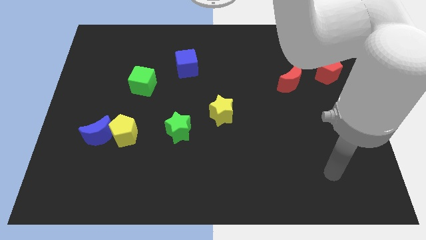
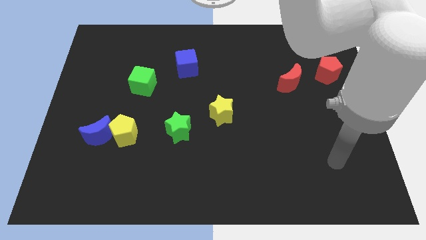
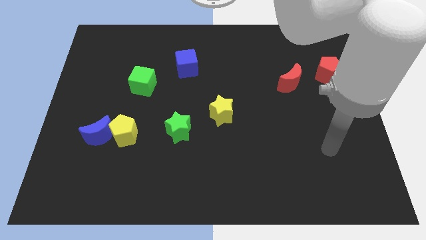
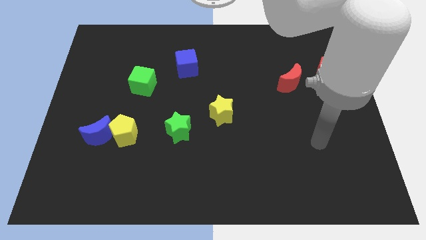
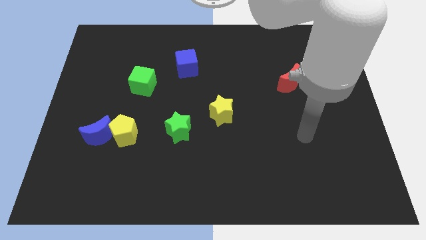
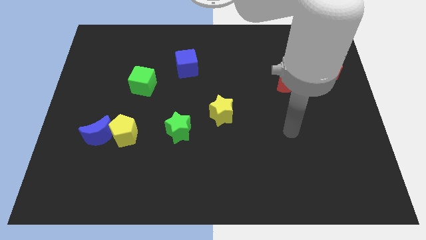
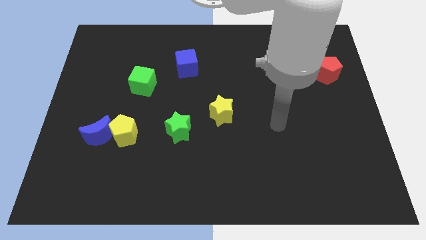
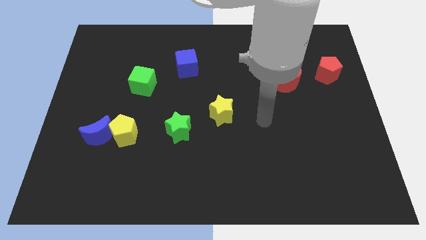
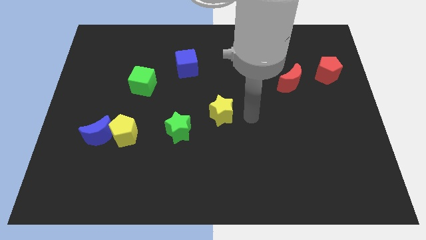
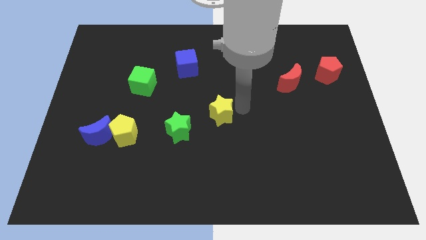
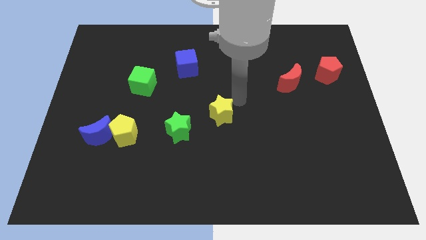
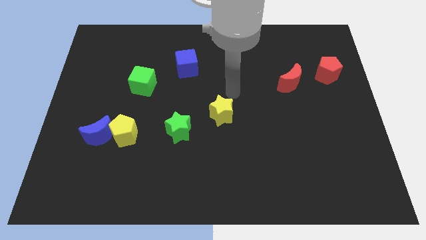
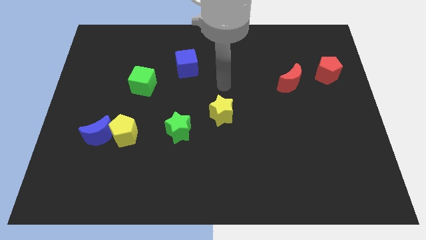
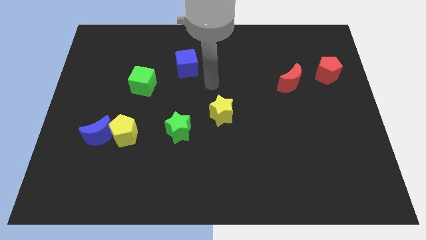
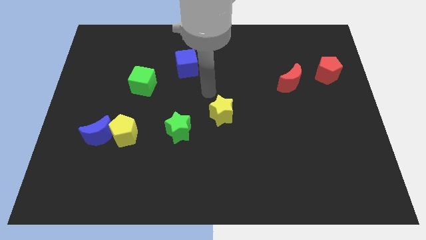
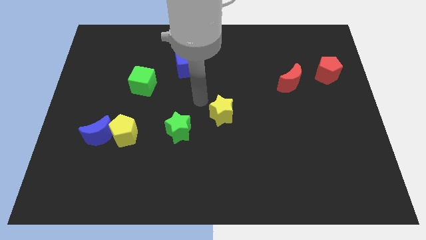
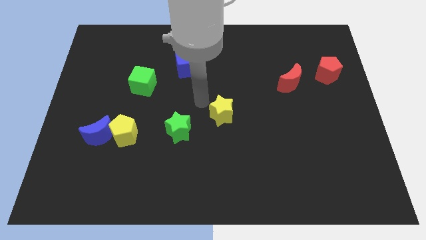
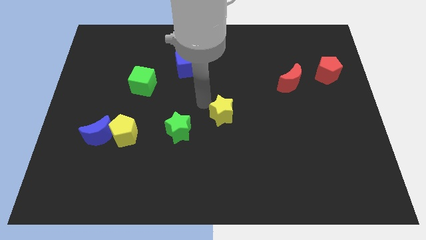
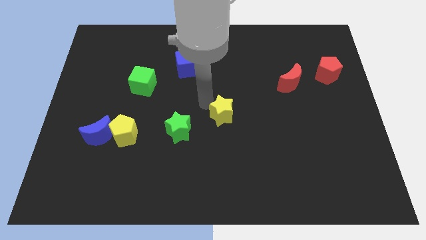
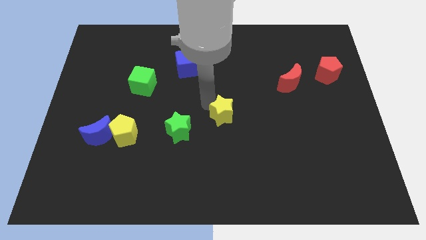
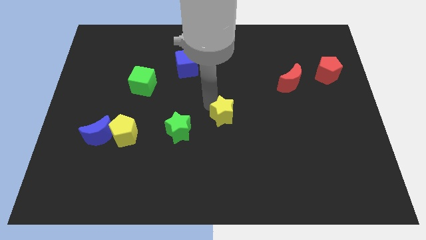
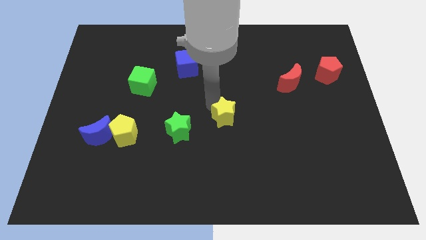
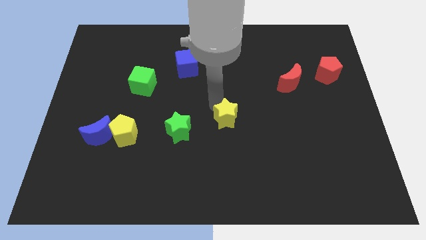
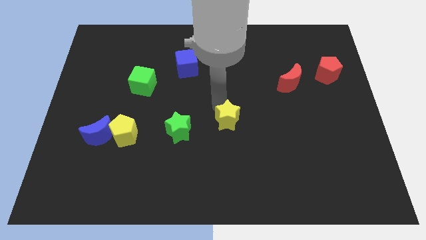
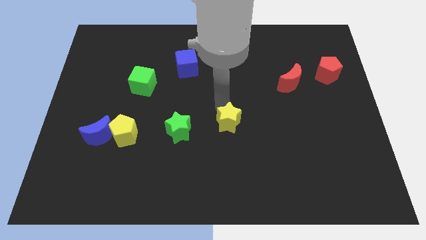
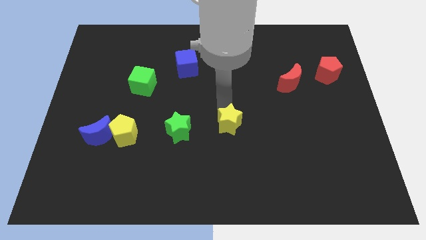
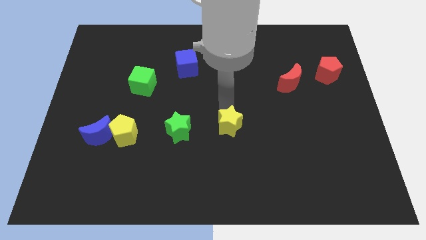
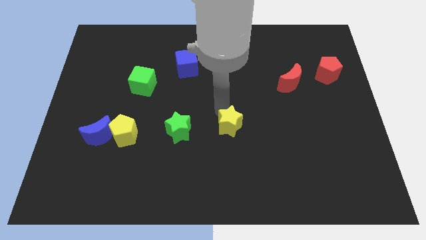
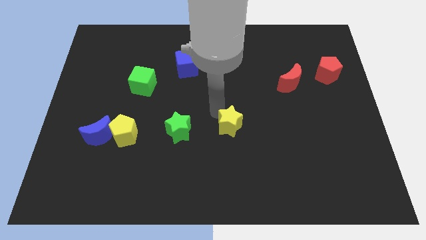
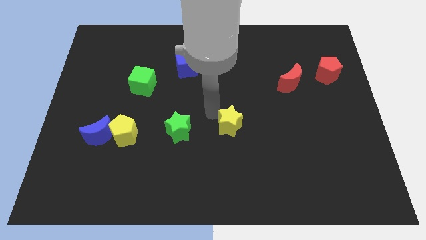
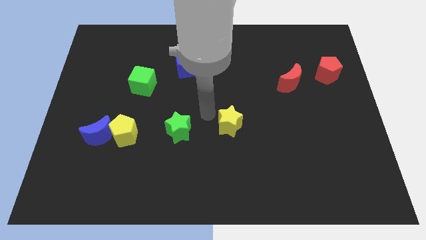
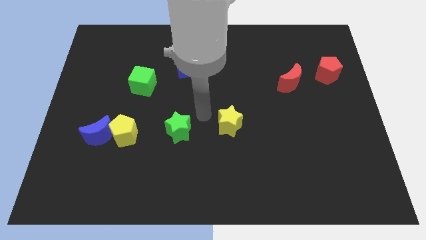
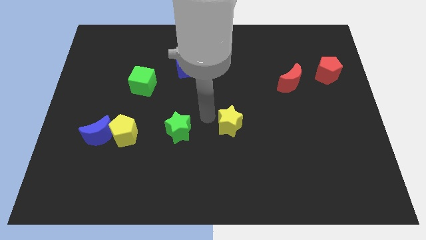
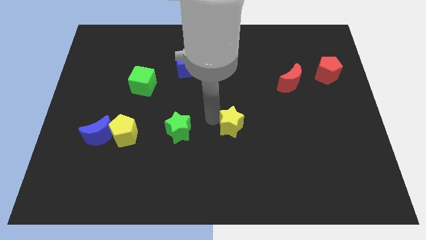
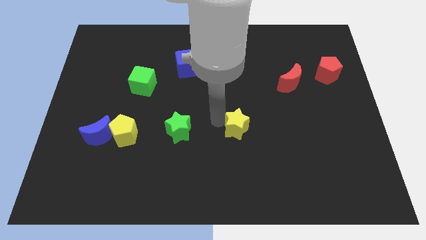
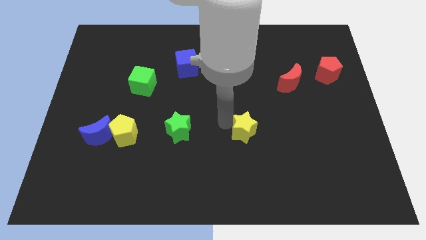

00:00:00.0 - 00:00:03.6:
slightly slide the yellow star downwards and then right

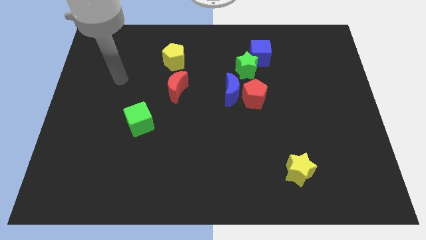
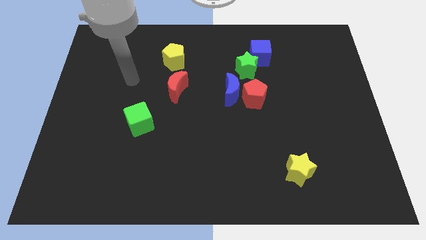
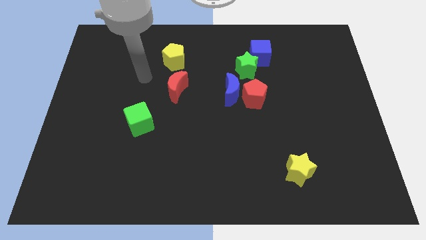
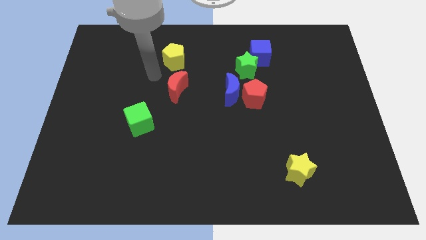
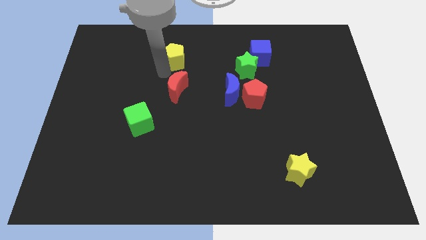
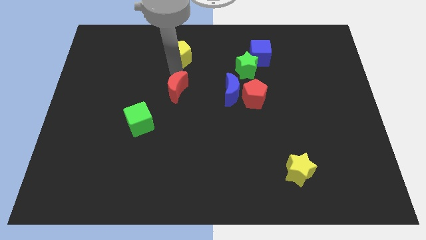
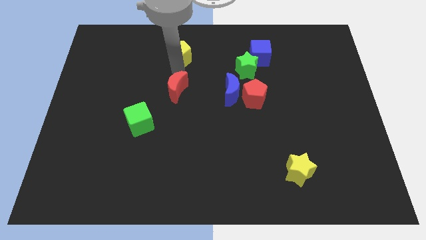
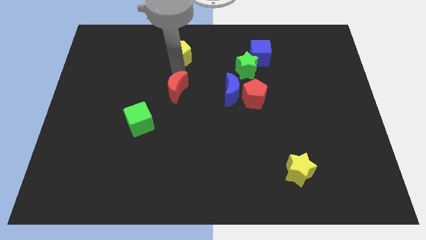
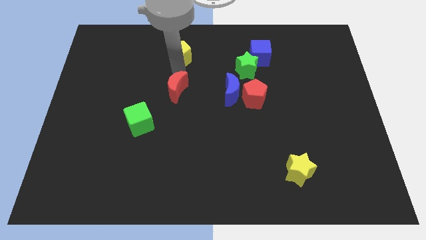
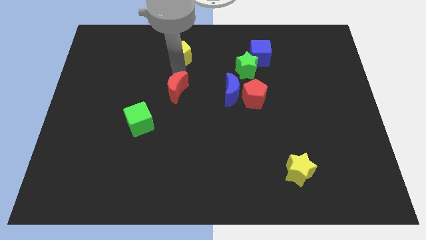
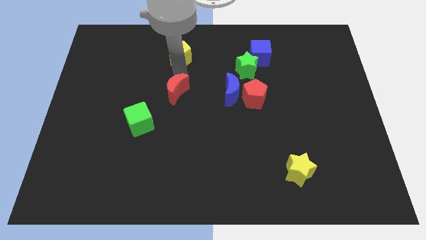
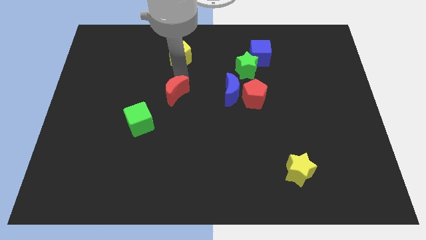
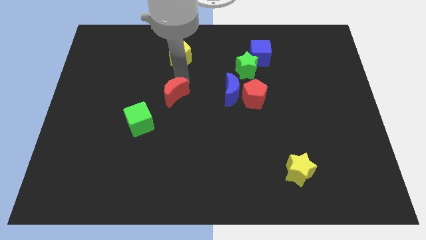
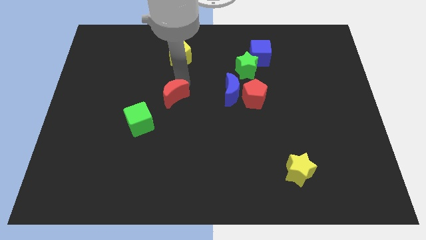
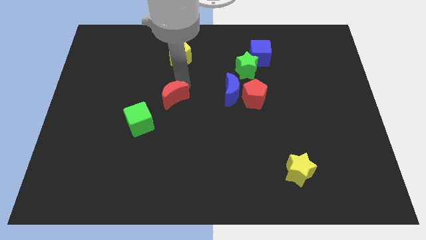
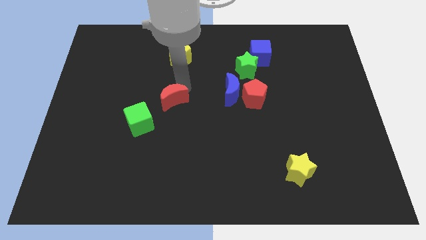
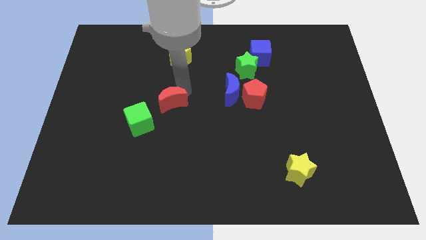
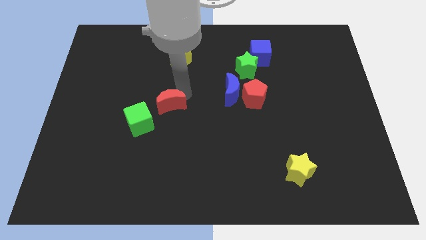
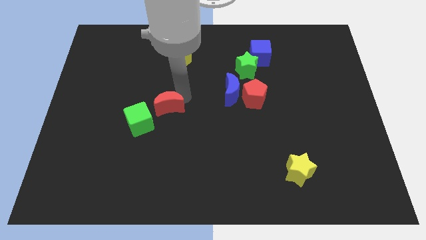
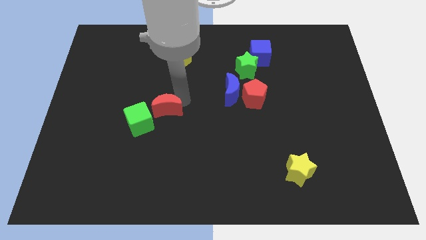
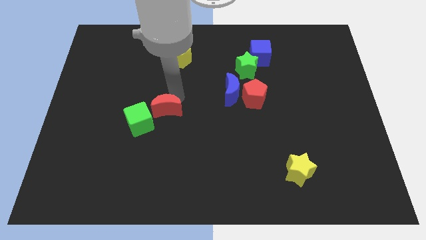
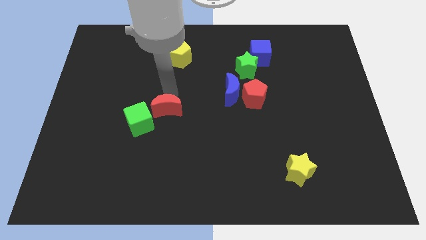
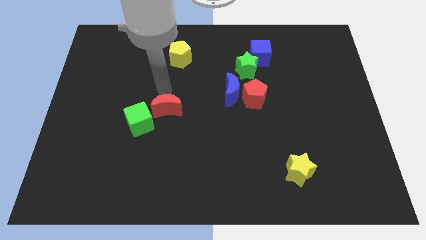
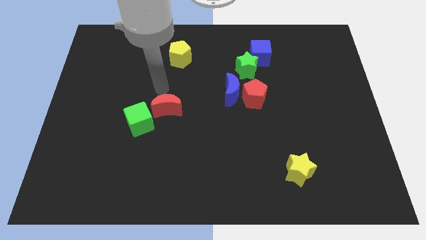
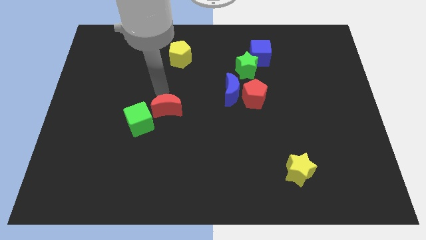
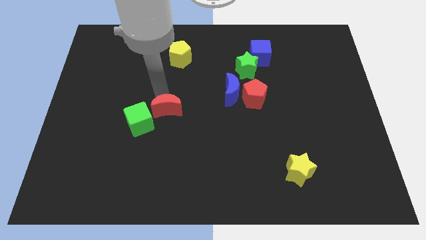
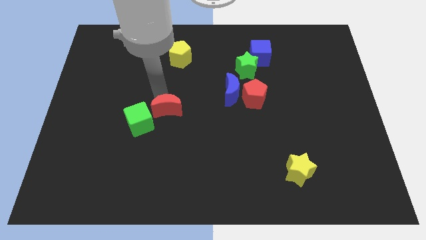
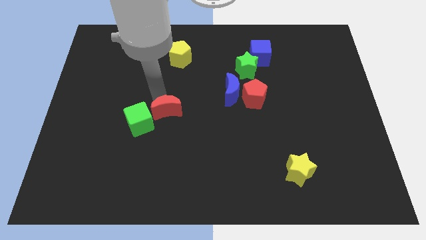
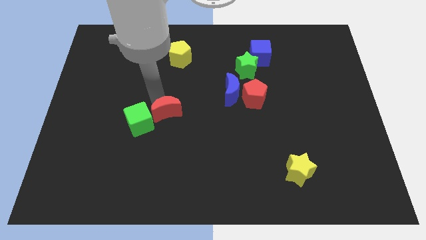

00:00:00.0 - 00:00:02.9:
slide the red moon a little bit downwards

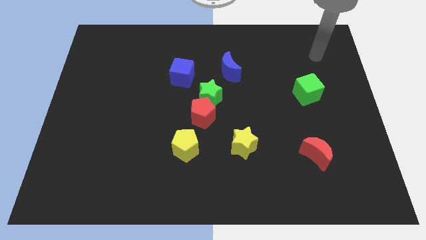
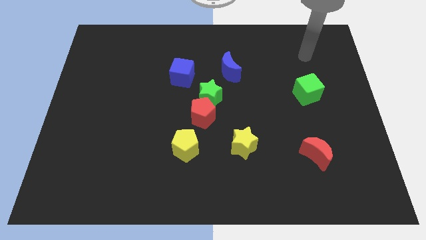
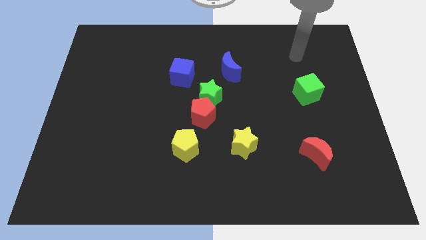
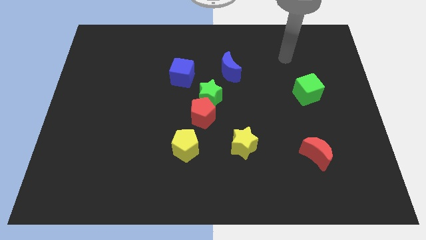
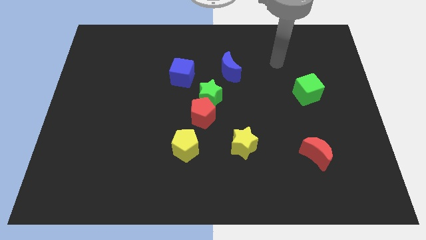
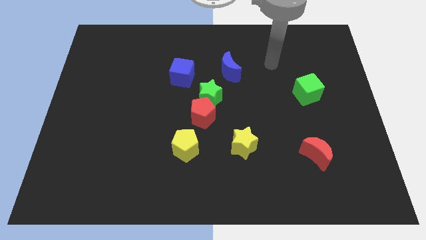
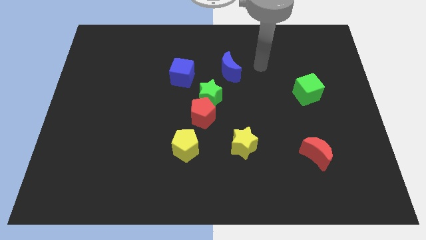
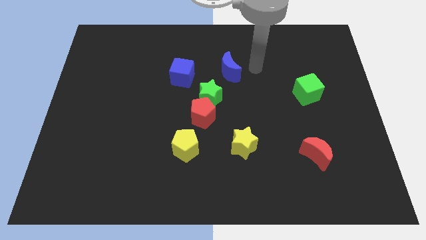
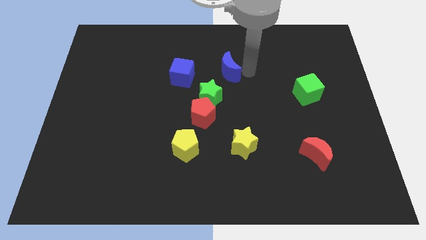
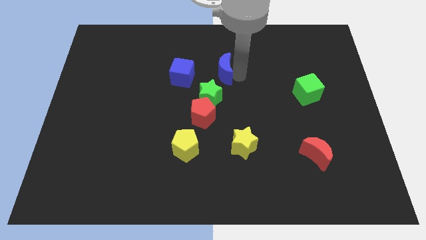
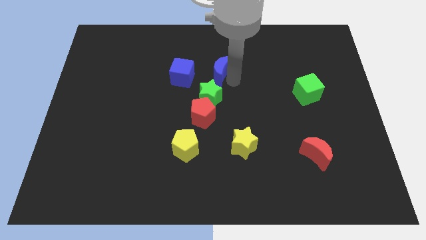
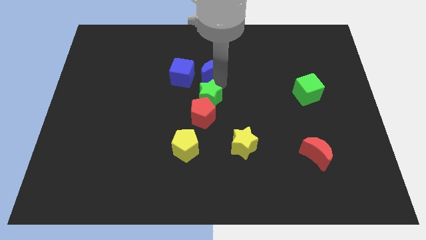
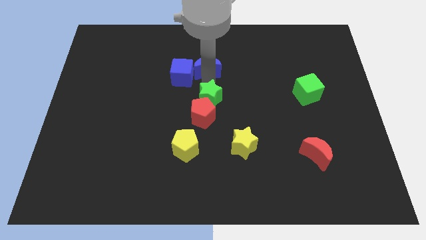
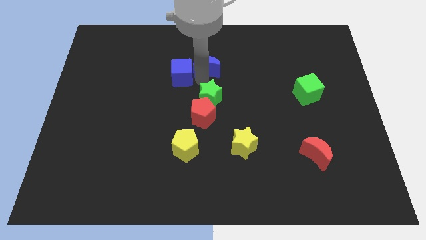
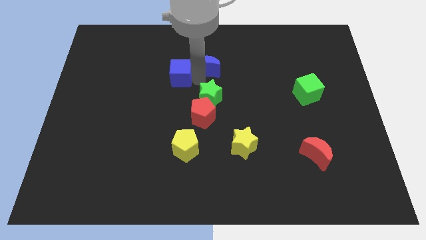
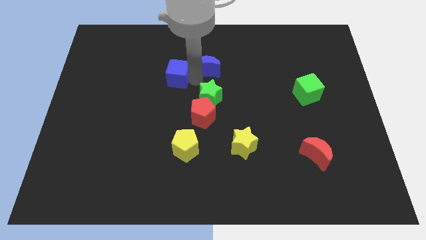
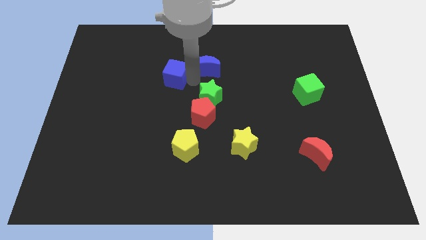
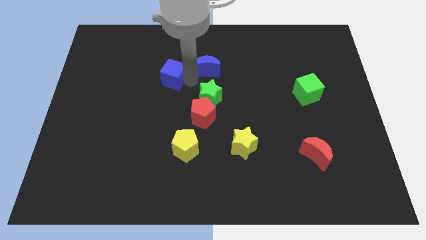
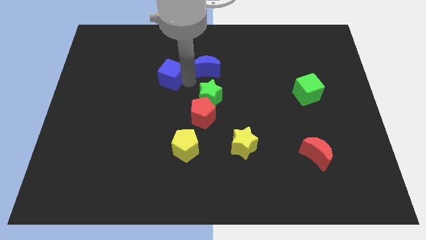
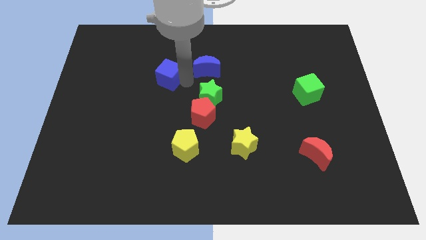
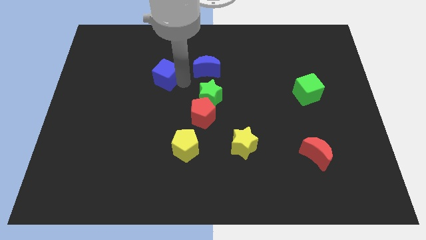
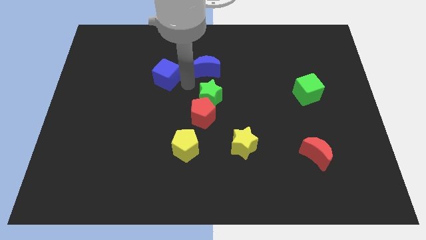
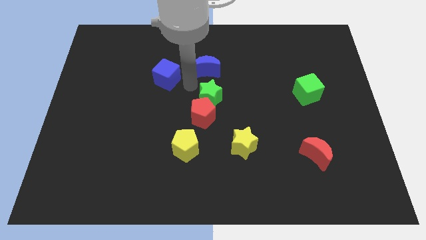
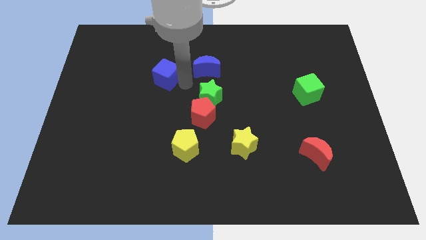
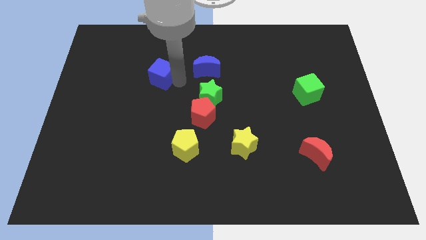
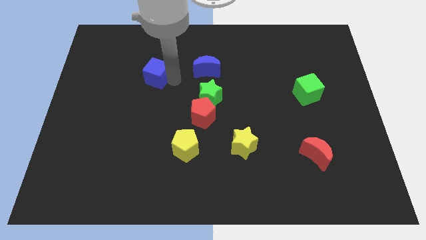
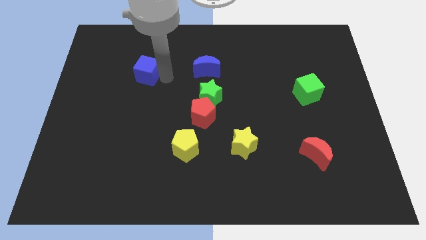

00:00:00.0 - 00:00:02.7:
move the blue cube to the left slightly
